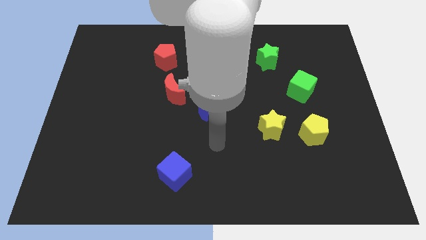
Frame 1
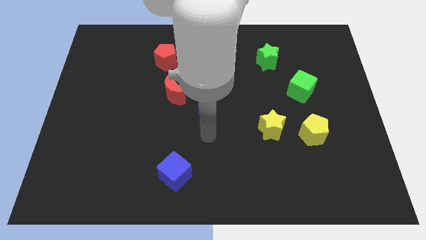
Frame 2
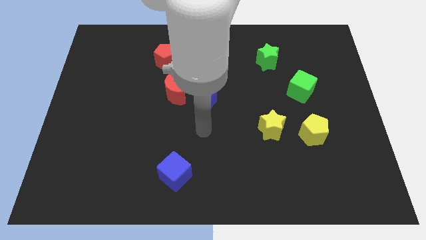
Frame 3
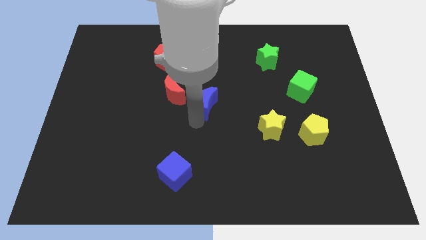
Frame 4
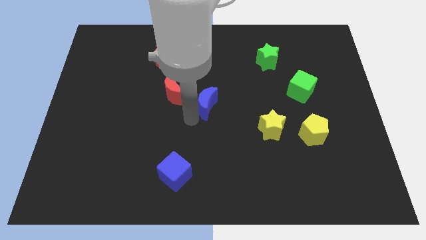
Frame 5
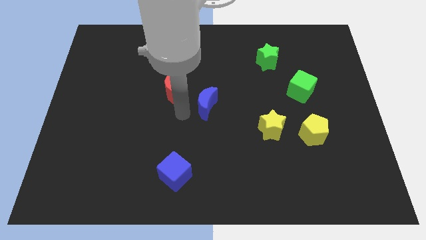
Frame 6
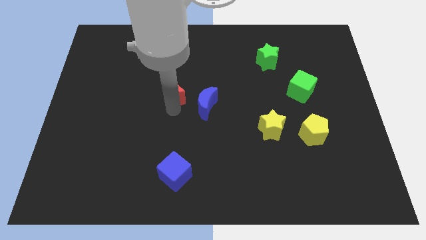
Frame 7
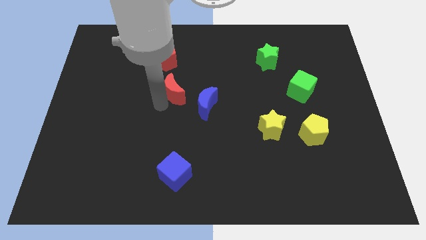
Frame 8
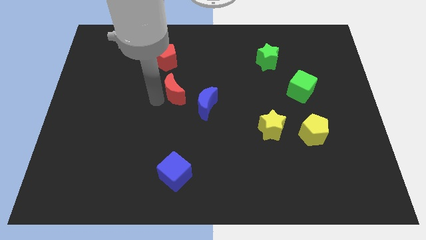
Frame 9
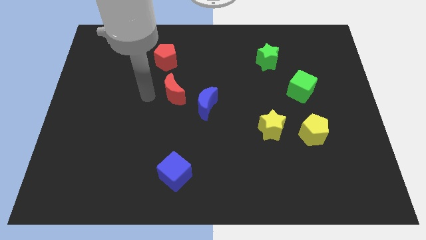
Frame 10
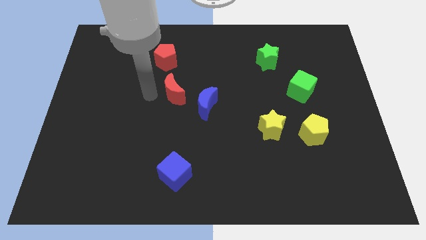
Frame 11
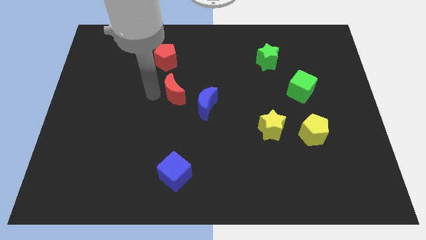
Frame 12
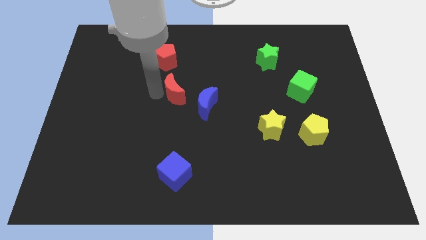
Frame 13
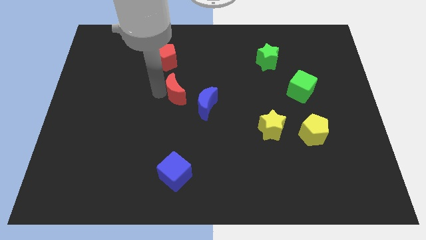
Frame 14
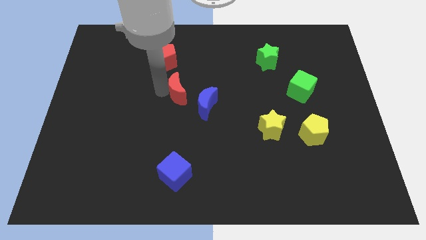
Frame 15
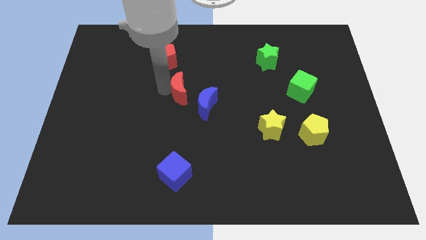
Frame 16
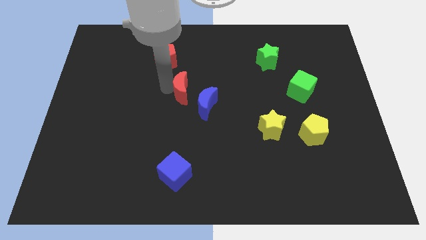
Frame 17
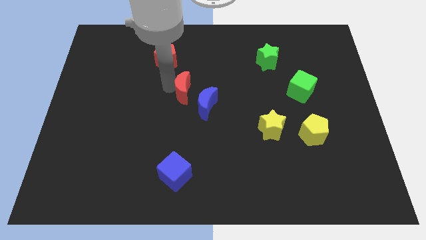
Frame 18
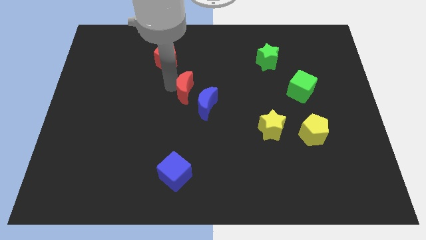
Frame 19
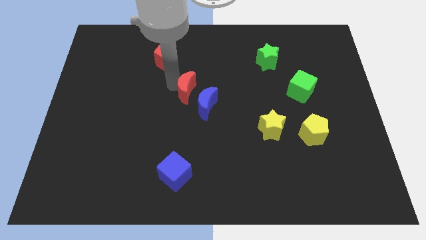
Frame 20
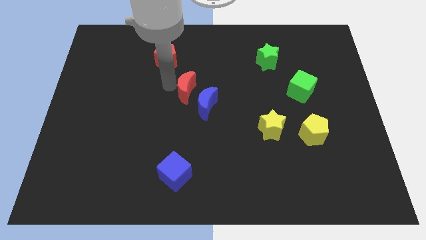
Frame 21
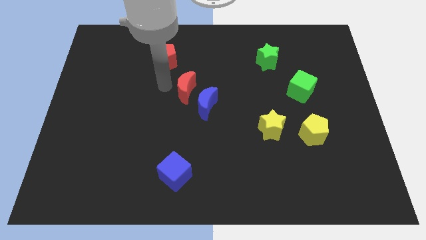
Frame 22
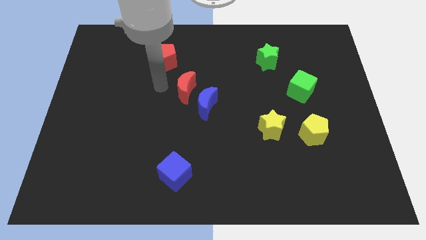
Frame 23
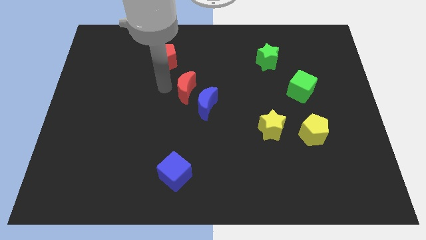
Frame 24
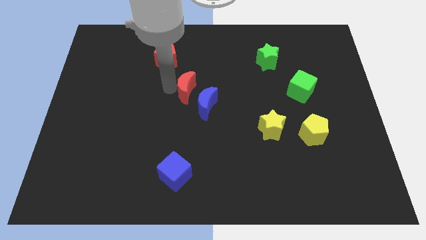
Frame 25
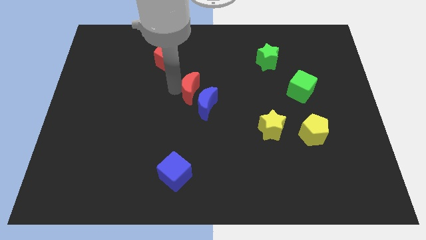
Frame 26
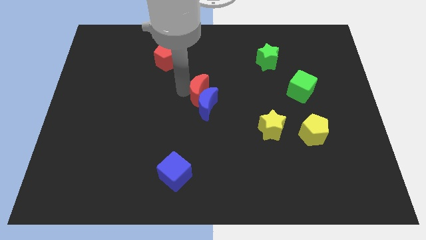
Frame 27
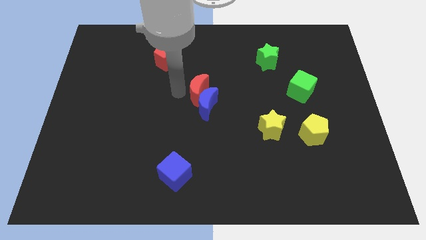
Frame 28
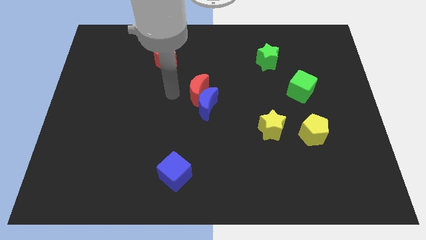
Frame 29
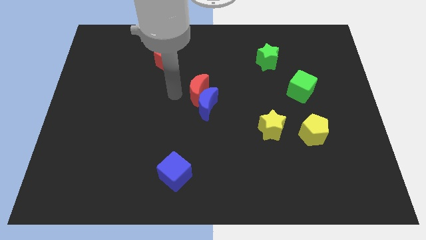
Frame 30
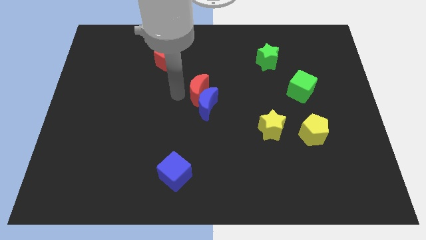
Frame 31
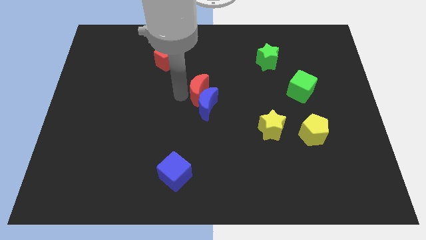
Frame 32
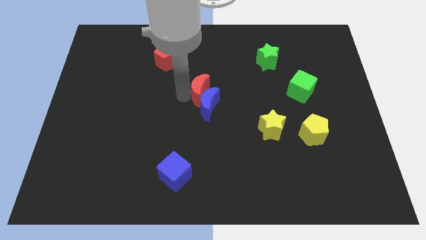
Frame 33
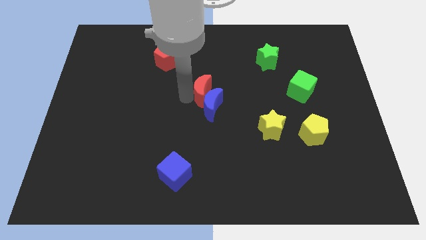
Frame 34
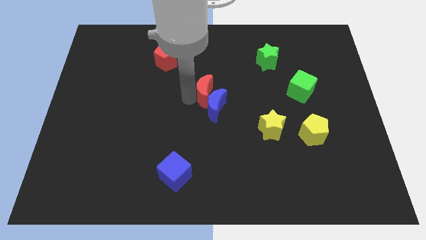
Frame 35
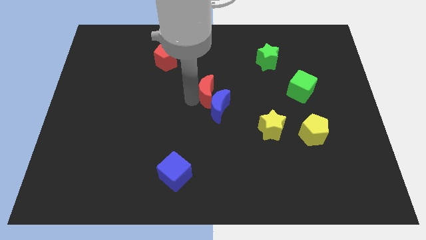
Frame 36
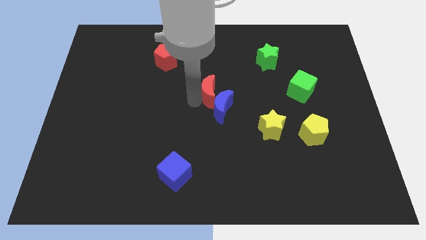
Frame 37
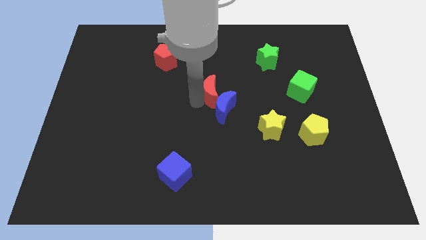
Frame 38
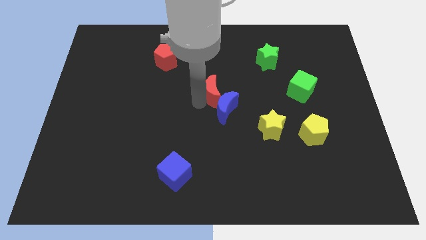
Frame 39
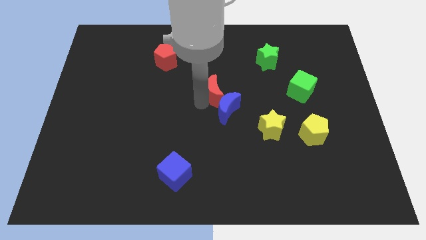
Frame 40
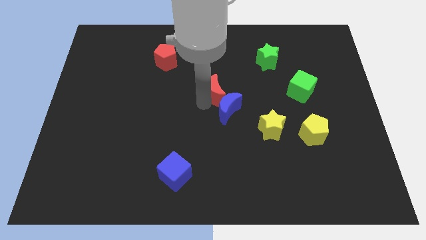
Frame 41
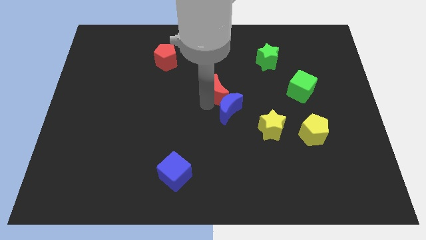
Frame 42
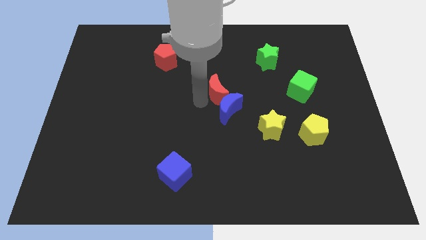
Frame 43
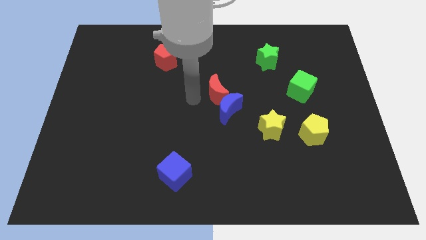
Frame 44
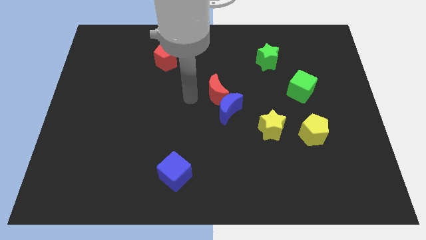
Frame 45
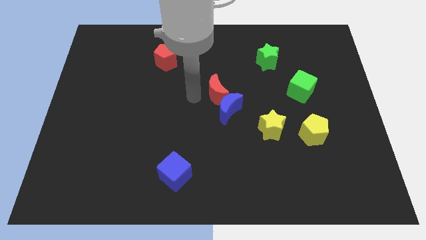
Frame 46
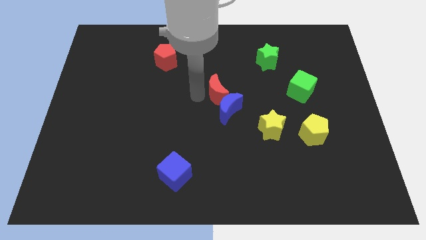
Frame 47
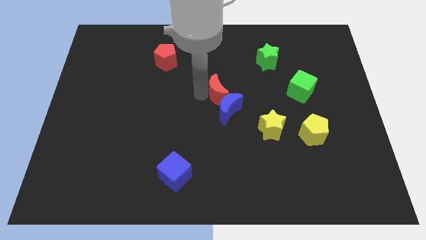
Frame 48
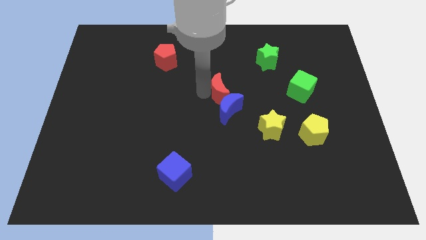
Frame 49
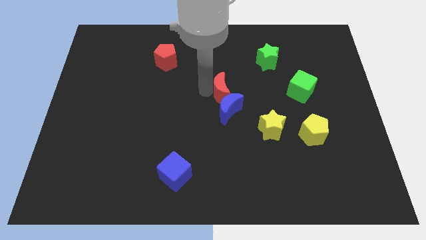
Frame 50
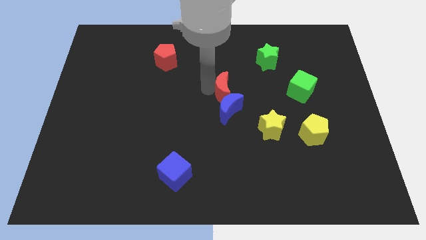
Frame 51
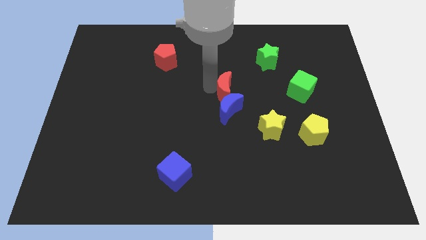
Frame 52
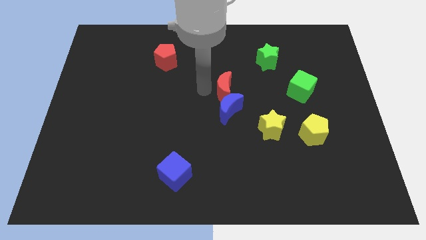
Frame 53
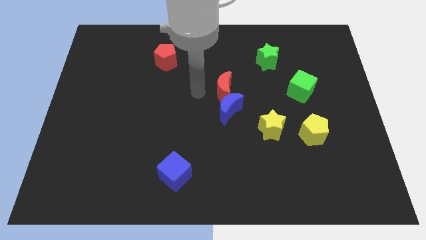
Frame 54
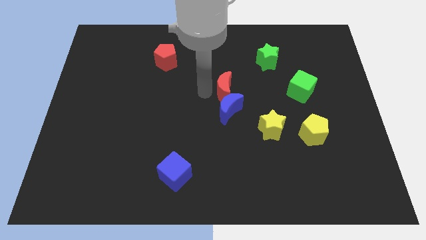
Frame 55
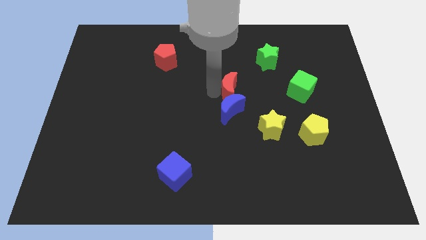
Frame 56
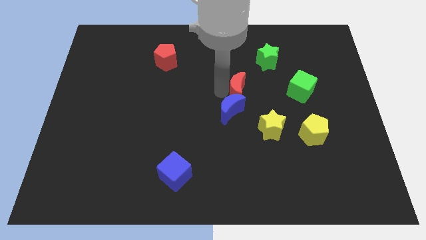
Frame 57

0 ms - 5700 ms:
move the red moon to the left side of the green cube

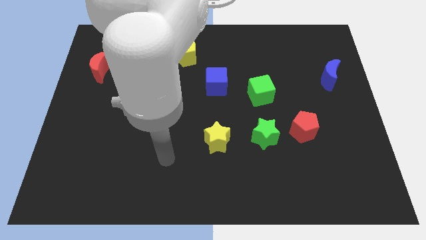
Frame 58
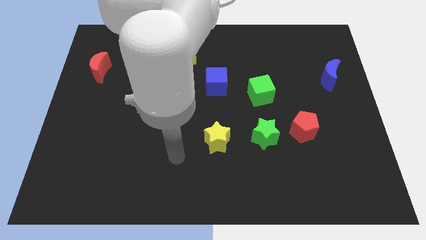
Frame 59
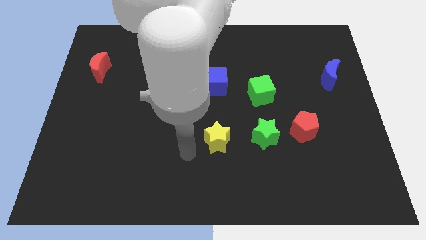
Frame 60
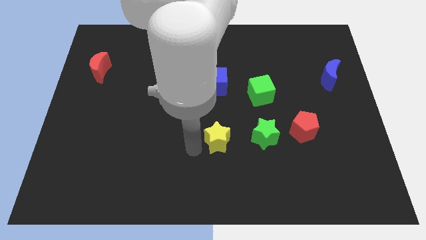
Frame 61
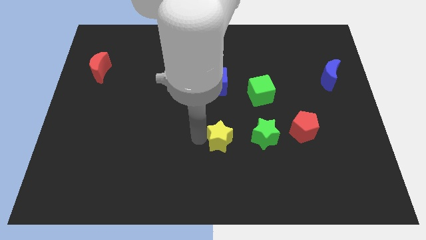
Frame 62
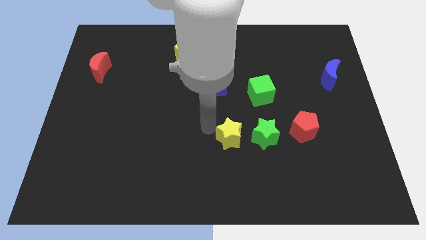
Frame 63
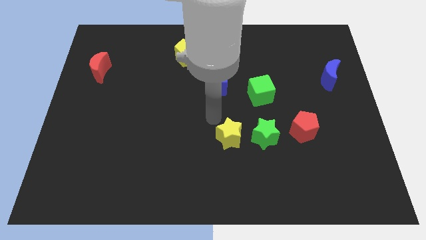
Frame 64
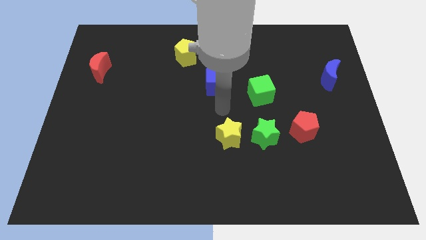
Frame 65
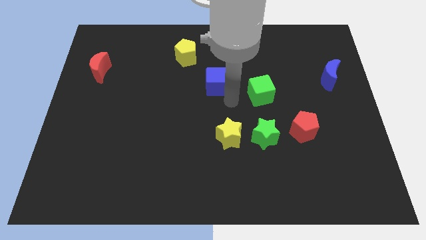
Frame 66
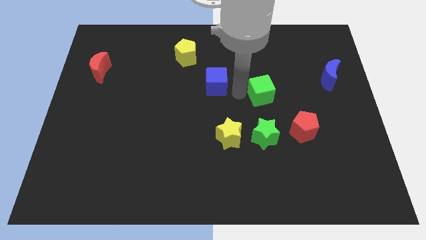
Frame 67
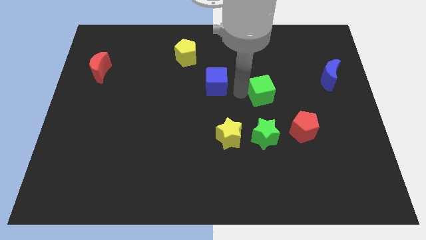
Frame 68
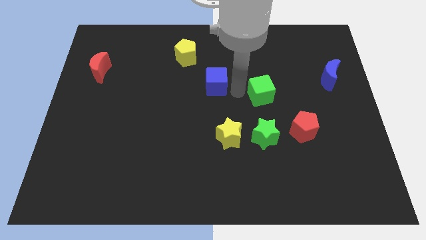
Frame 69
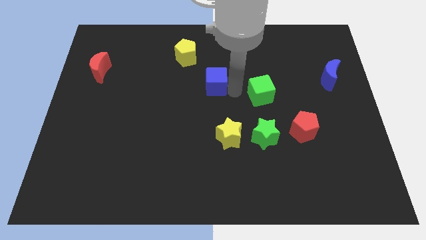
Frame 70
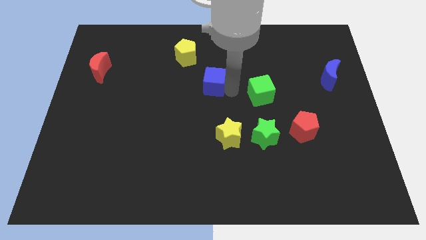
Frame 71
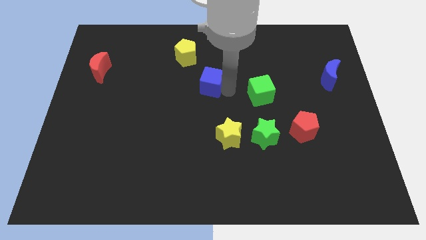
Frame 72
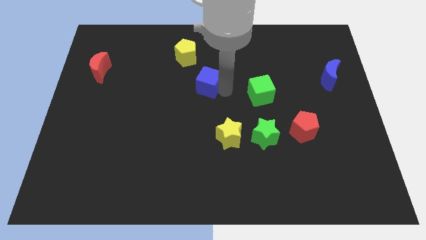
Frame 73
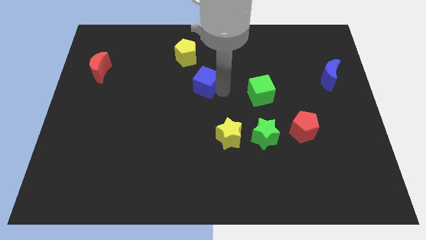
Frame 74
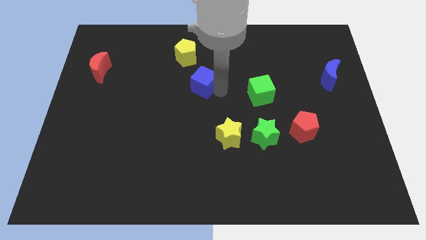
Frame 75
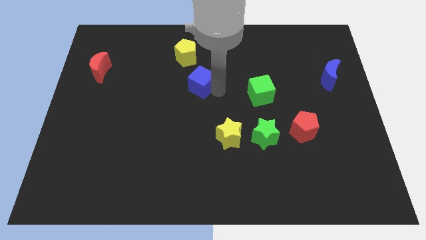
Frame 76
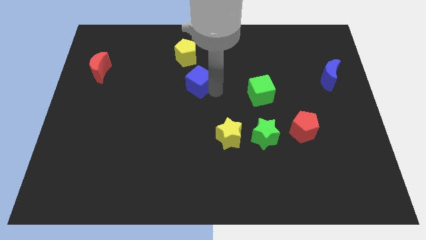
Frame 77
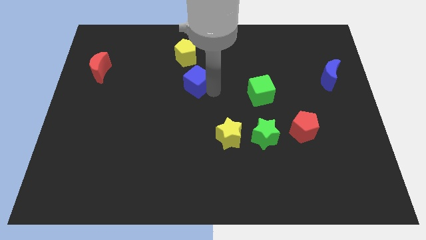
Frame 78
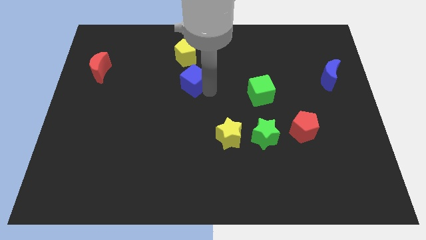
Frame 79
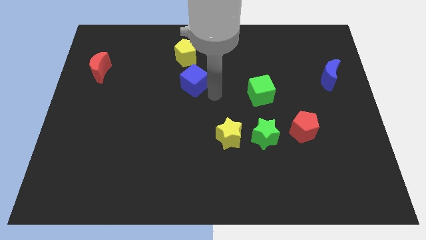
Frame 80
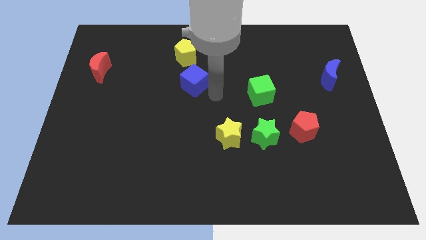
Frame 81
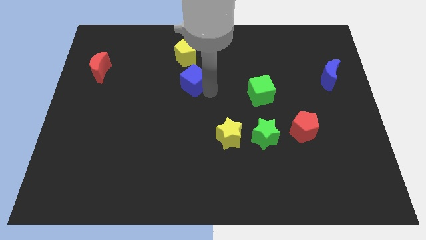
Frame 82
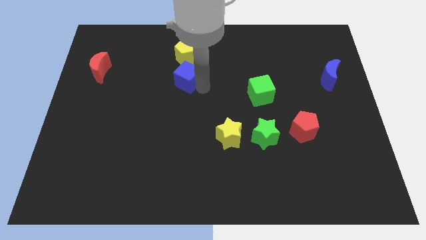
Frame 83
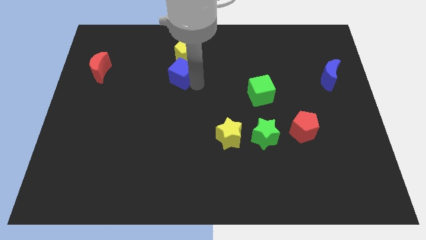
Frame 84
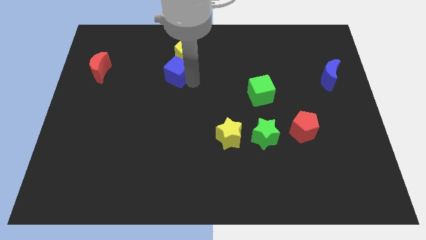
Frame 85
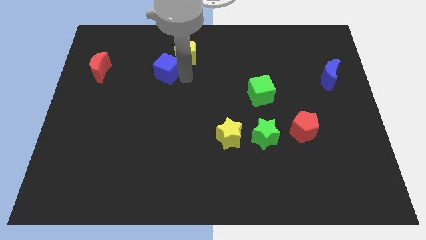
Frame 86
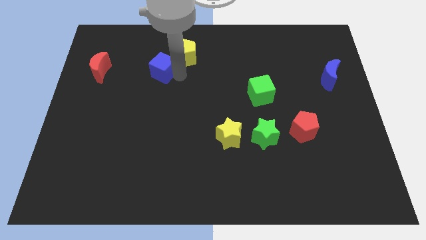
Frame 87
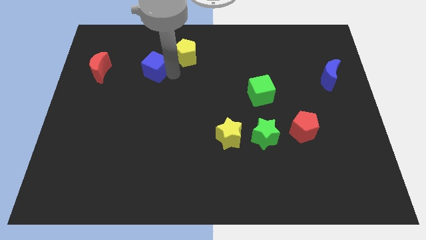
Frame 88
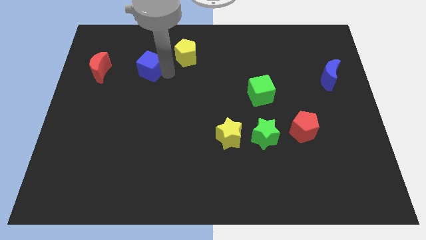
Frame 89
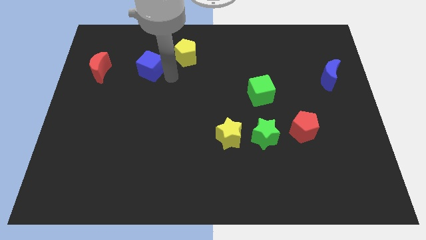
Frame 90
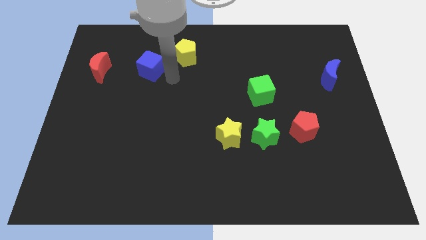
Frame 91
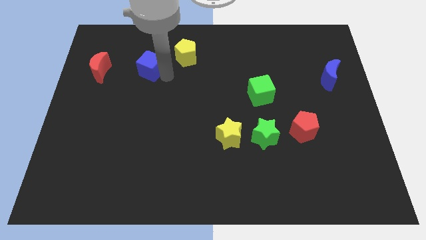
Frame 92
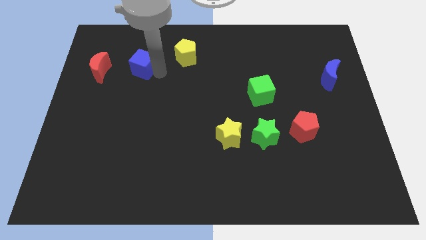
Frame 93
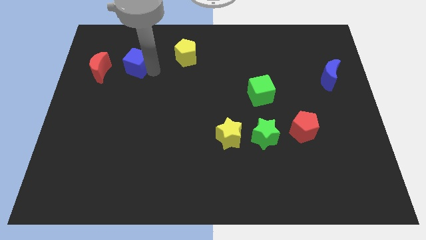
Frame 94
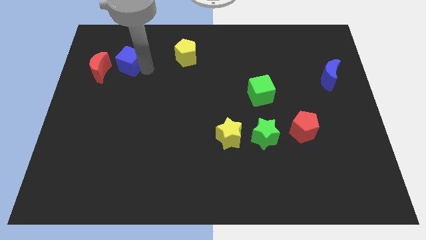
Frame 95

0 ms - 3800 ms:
put the blue cube diagonally up and to the right of the red moon
